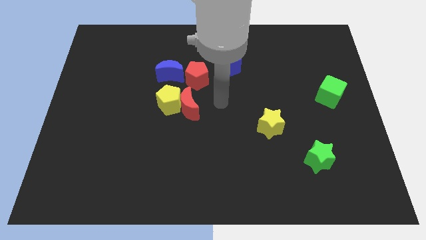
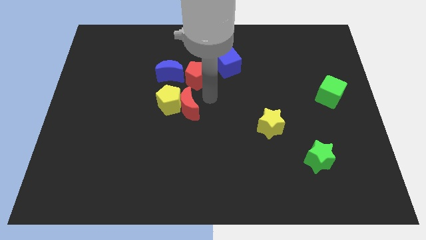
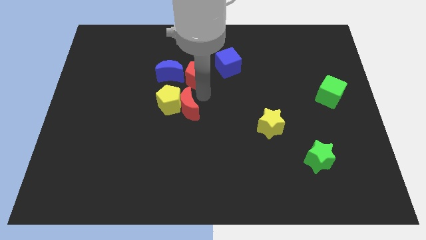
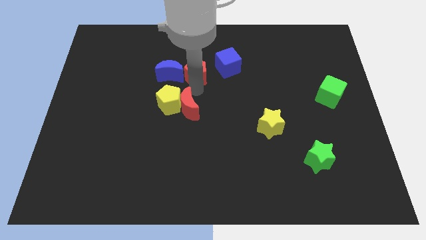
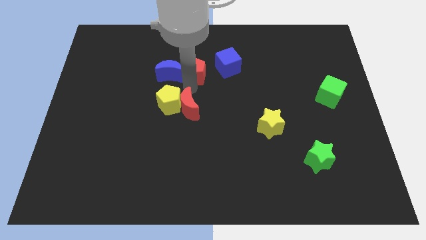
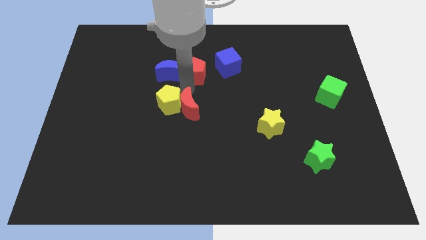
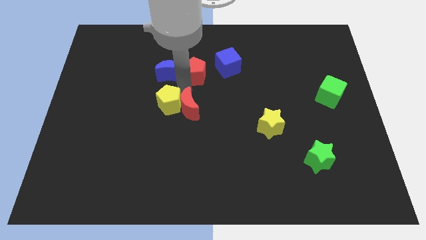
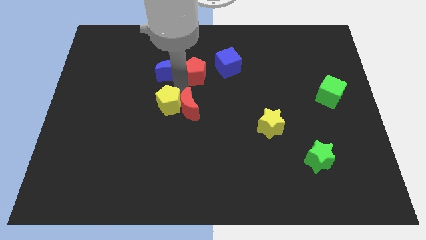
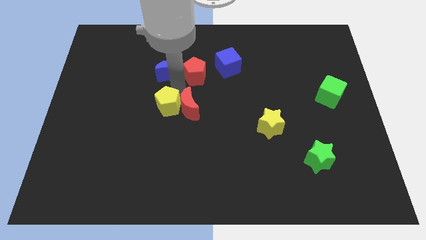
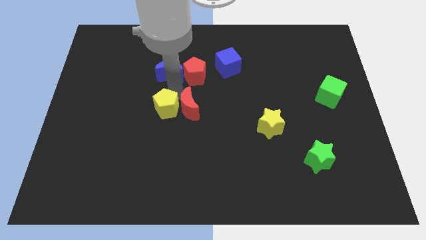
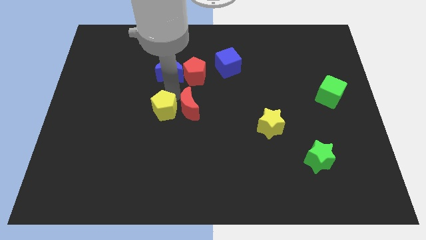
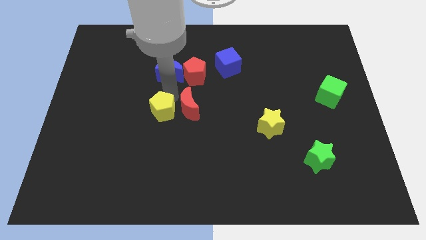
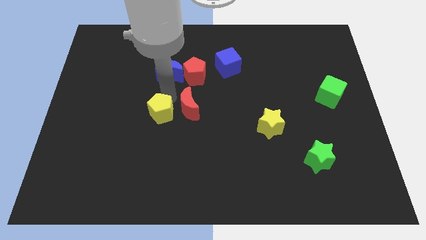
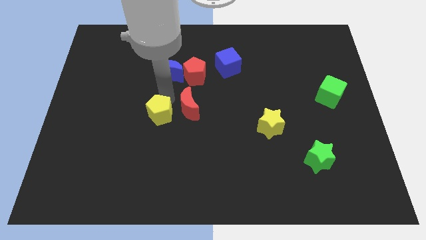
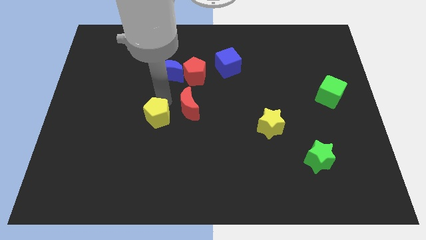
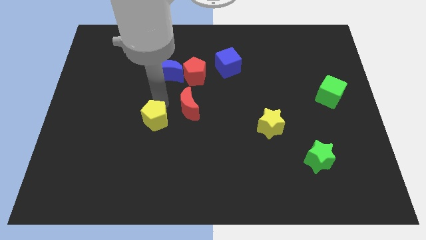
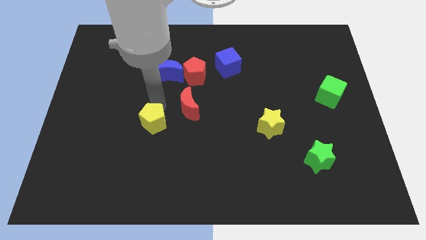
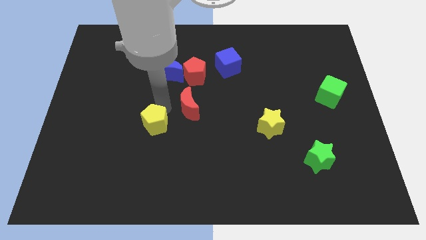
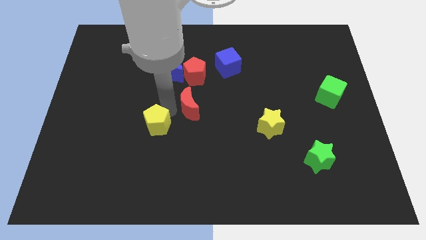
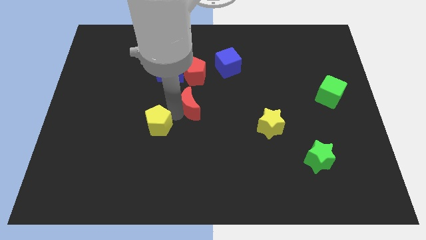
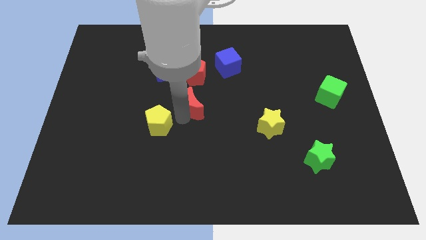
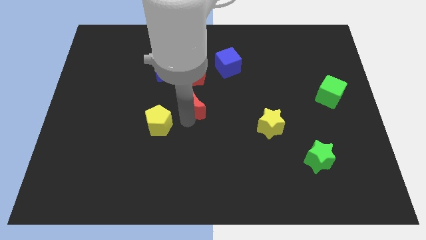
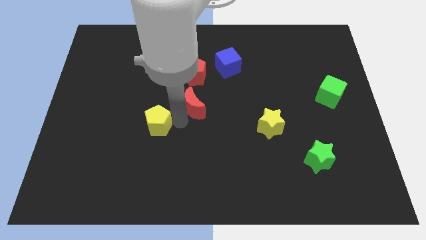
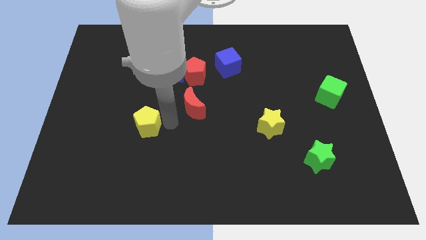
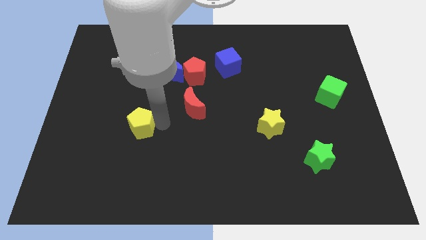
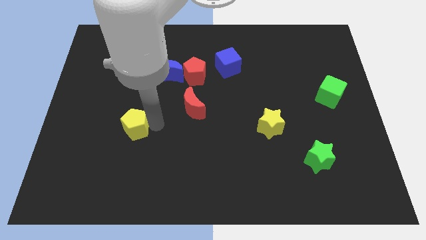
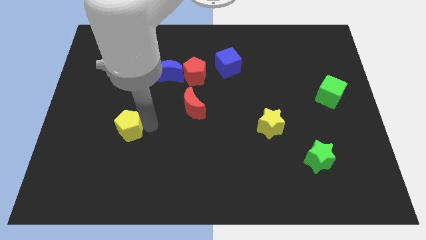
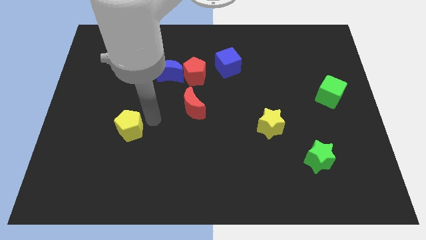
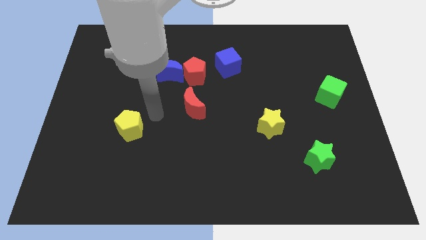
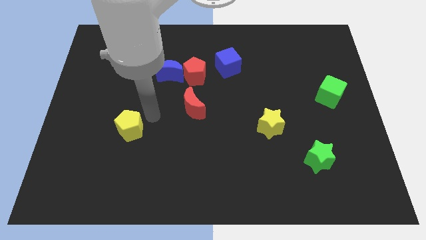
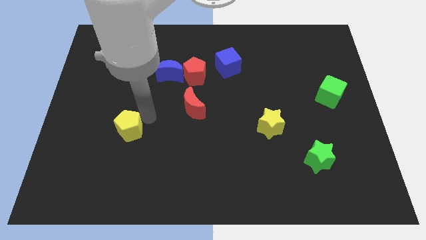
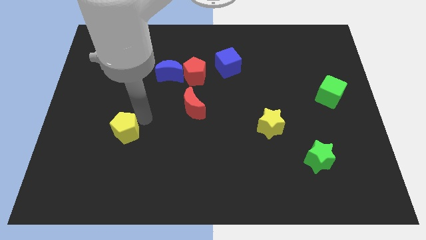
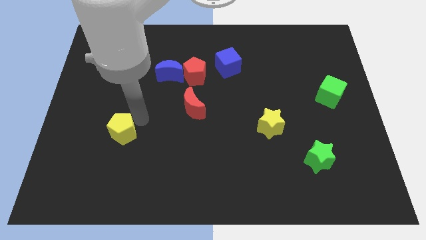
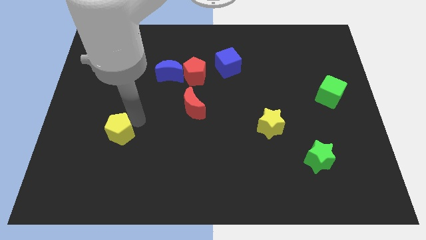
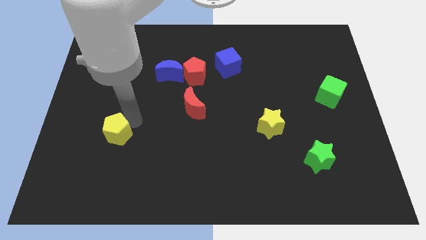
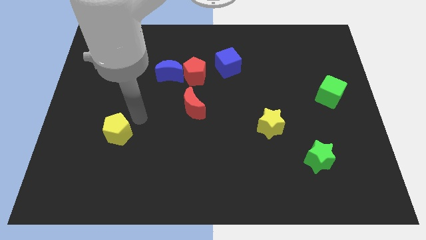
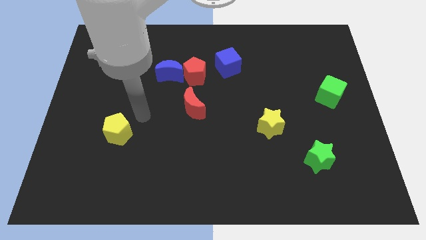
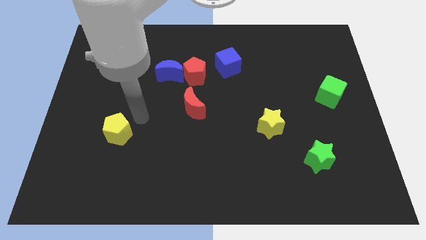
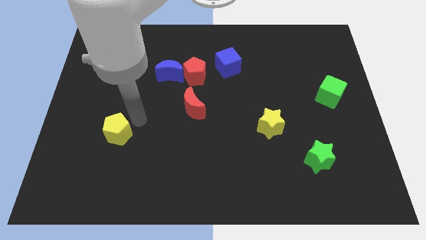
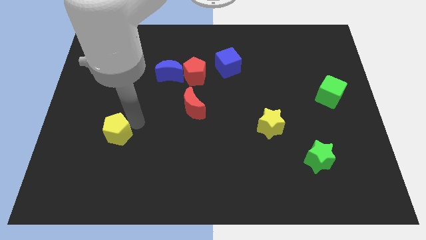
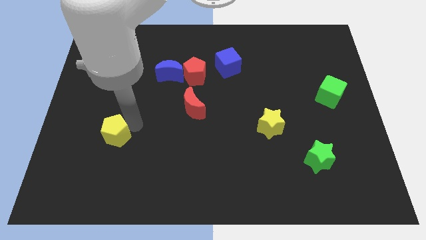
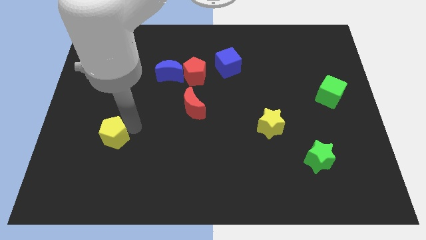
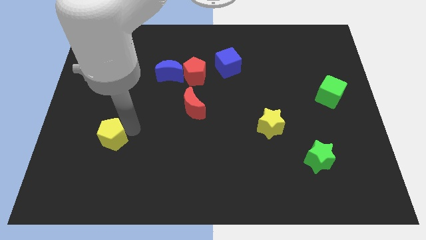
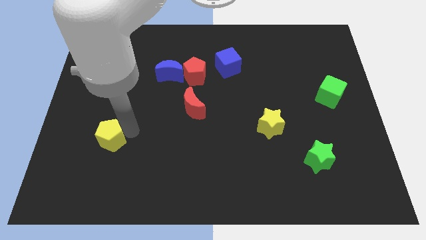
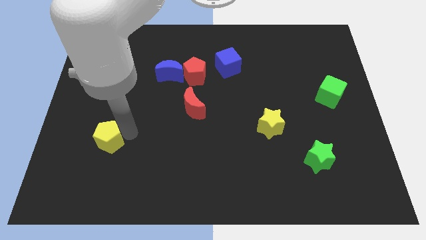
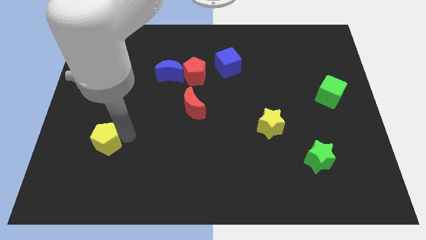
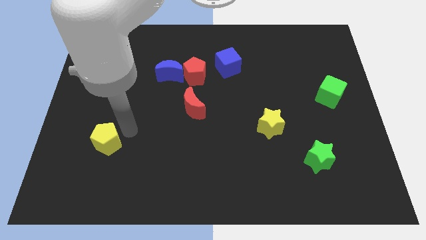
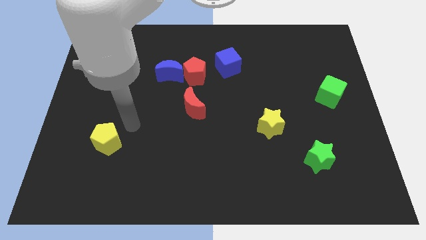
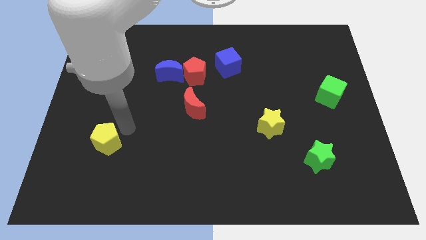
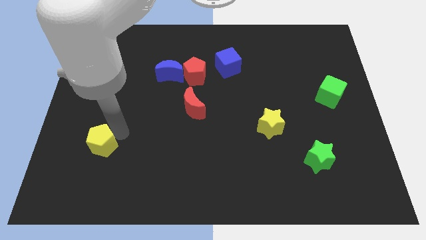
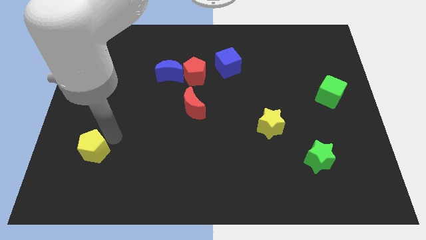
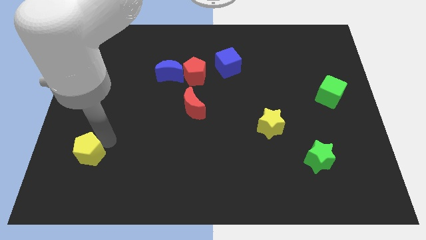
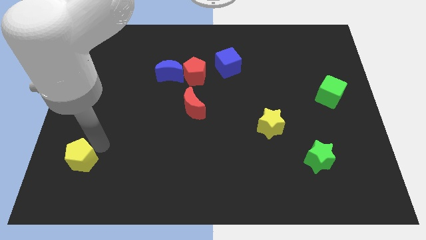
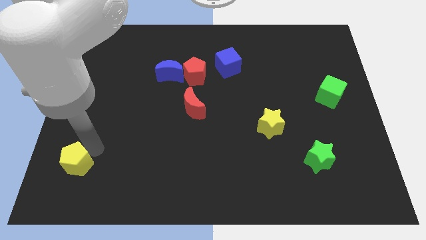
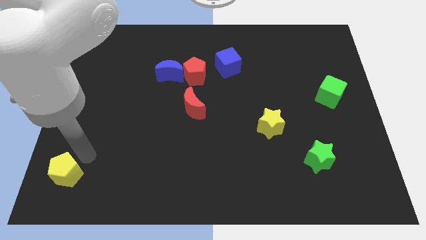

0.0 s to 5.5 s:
push the yellow pentagon to the lower left corner
